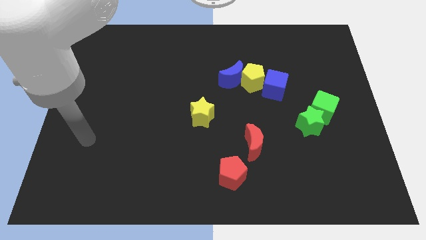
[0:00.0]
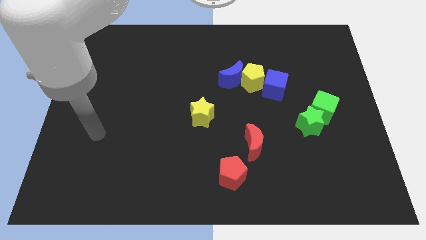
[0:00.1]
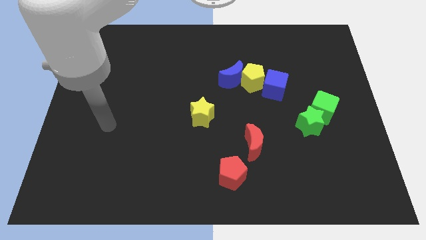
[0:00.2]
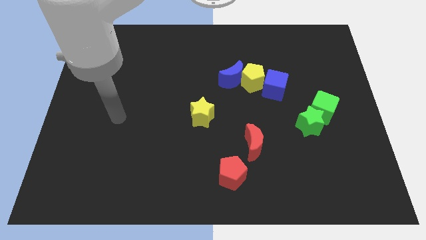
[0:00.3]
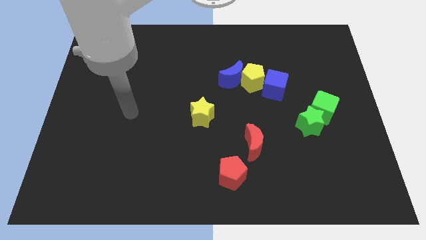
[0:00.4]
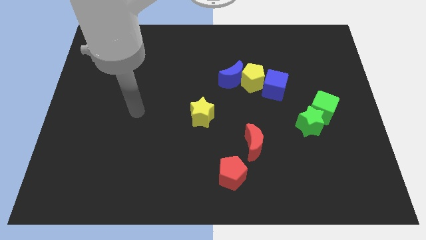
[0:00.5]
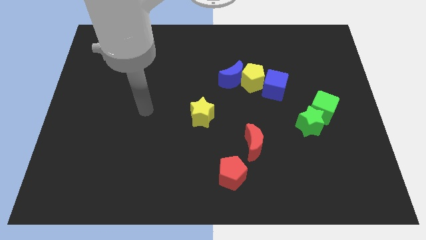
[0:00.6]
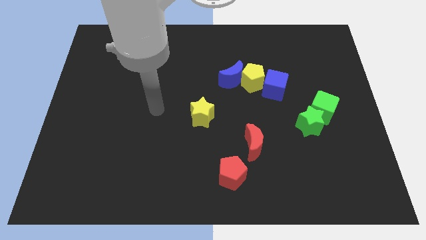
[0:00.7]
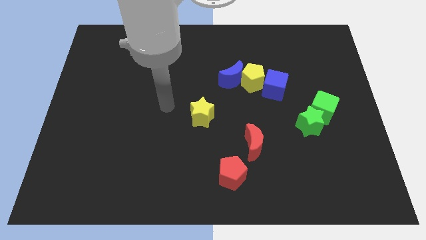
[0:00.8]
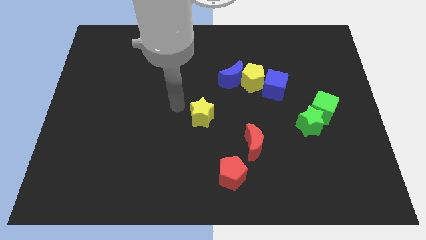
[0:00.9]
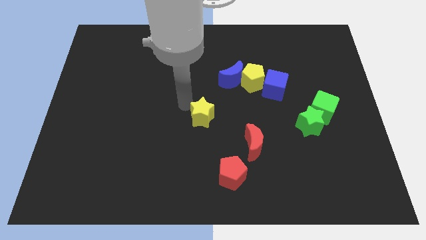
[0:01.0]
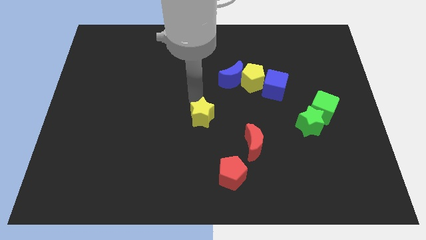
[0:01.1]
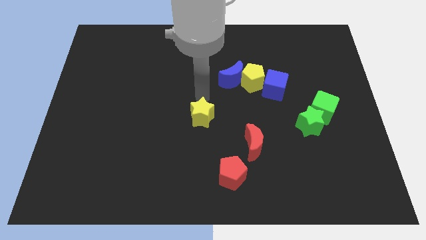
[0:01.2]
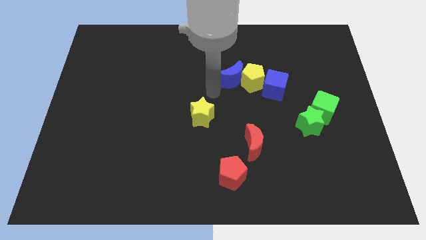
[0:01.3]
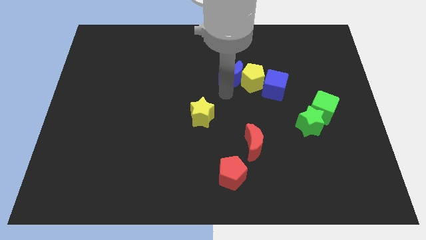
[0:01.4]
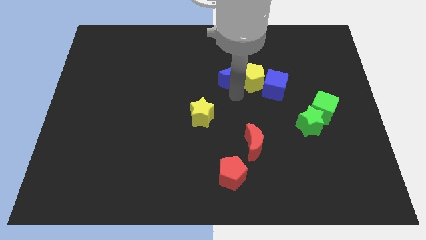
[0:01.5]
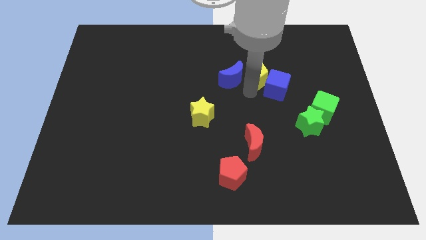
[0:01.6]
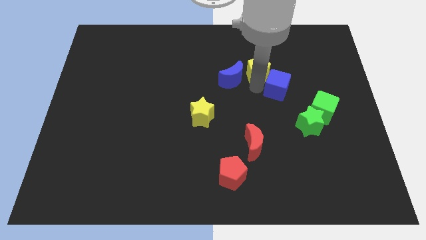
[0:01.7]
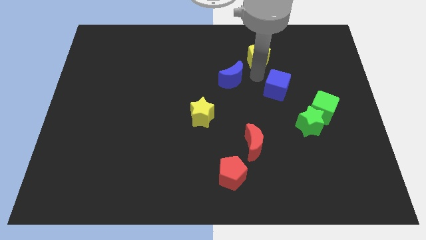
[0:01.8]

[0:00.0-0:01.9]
move the blue moon away from the yellow pentagon

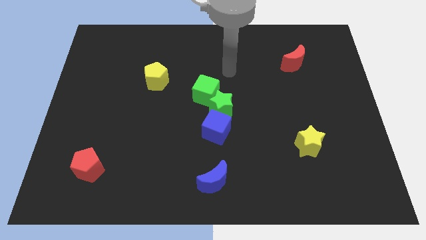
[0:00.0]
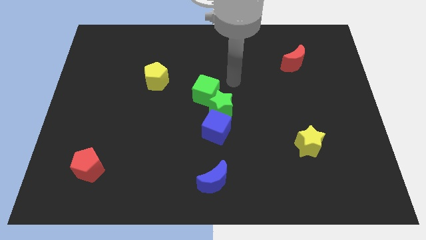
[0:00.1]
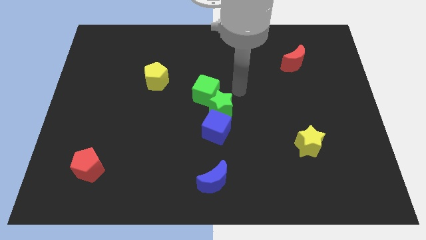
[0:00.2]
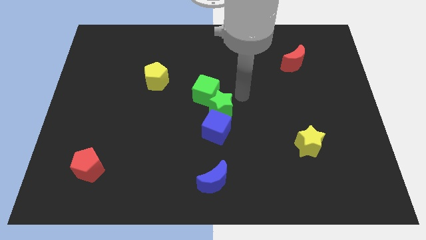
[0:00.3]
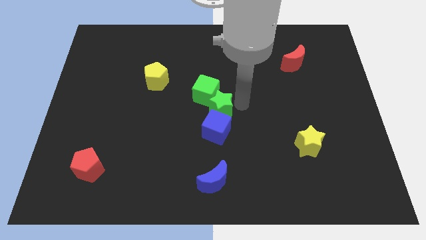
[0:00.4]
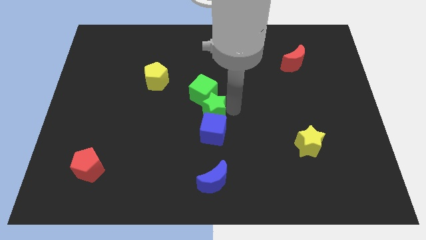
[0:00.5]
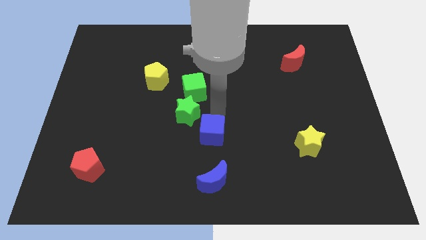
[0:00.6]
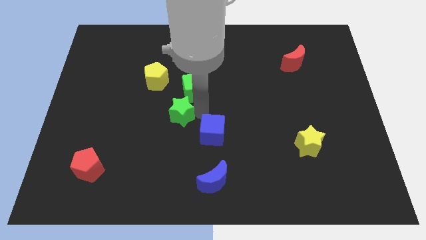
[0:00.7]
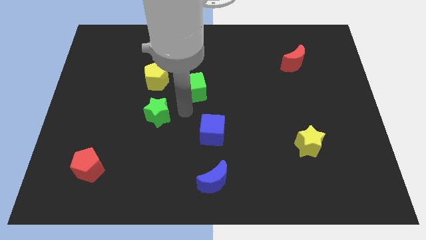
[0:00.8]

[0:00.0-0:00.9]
separate the green cube from the green star

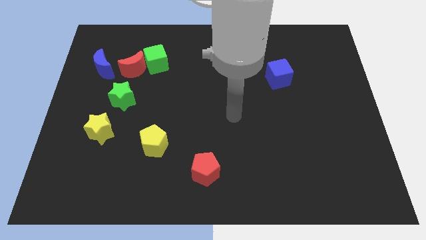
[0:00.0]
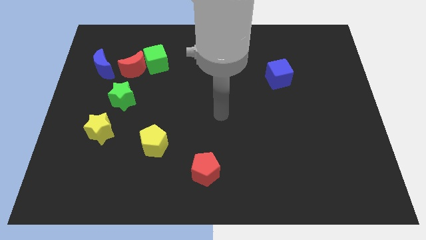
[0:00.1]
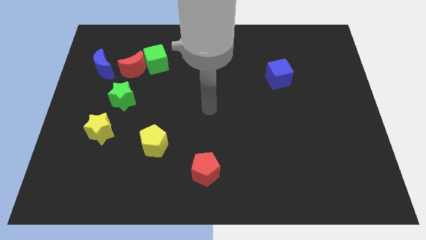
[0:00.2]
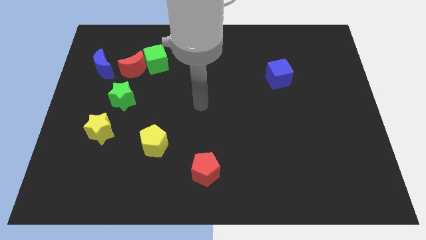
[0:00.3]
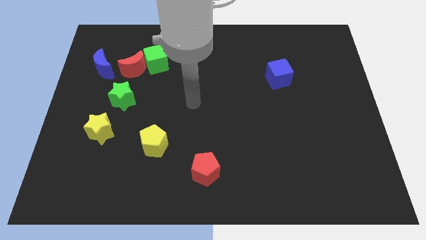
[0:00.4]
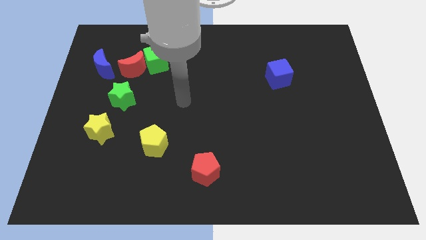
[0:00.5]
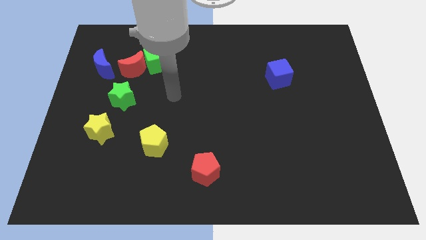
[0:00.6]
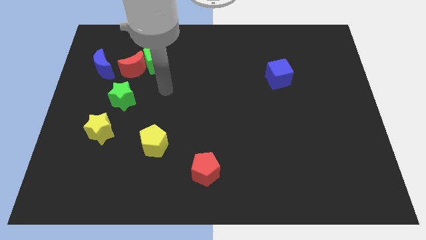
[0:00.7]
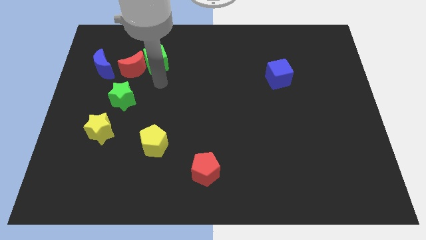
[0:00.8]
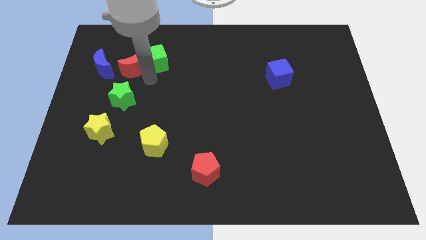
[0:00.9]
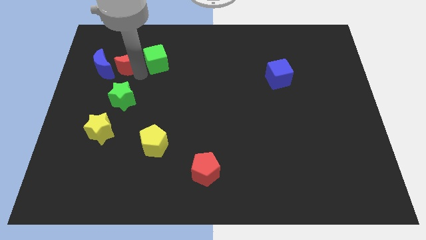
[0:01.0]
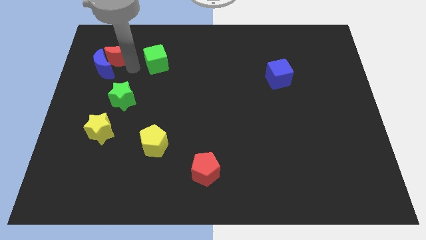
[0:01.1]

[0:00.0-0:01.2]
pull the green cube apart from the red moon

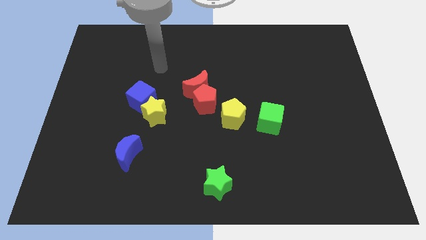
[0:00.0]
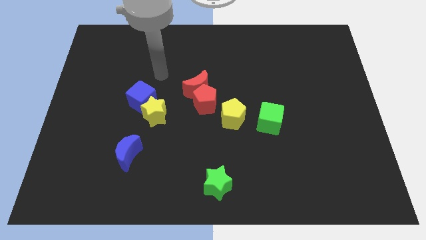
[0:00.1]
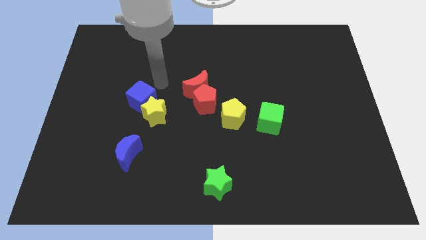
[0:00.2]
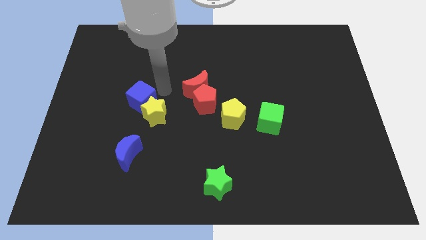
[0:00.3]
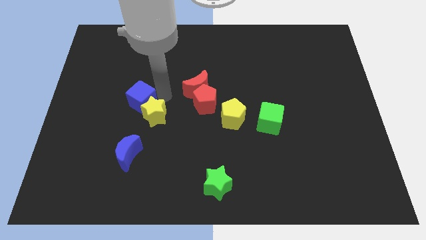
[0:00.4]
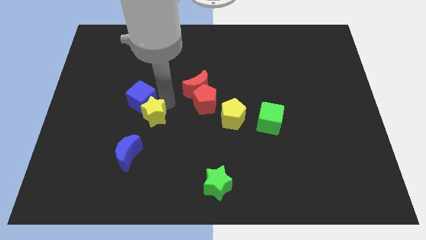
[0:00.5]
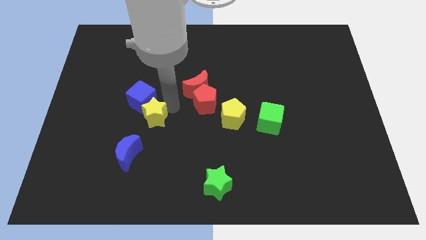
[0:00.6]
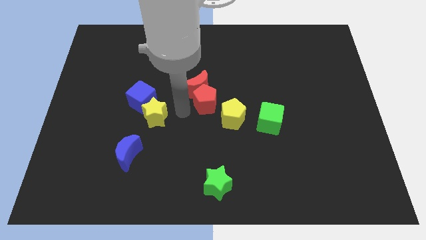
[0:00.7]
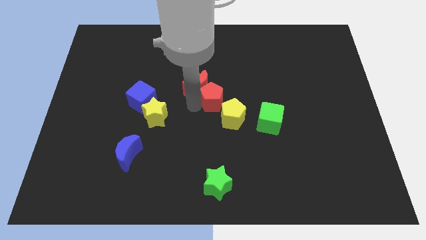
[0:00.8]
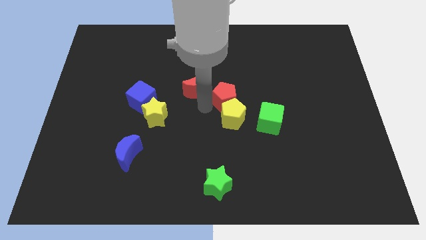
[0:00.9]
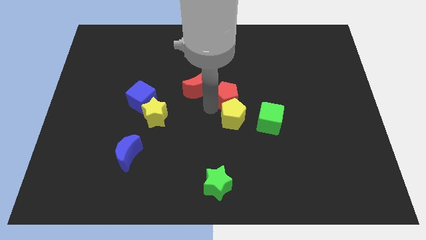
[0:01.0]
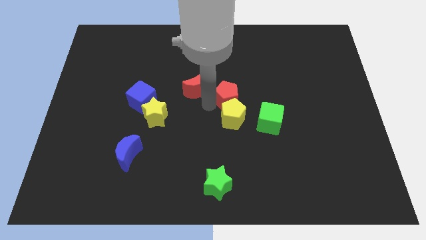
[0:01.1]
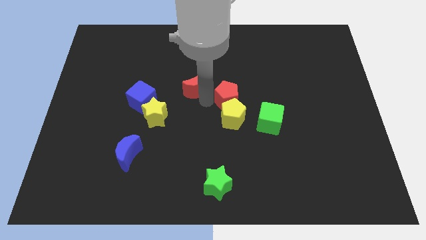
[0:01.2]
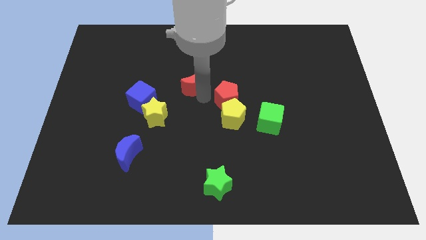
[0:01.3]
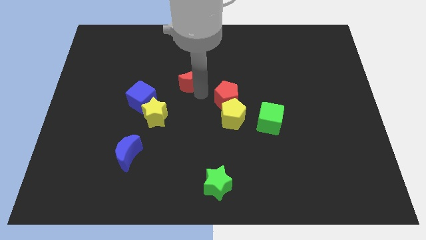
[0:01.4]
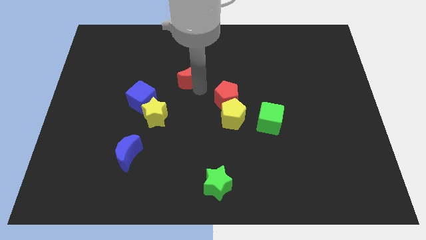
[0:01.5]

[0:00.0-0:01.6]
move the red moon away from the red pentagon

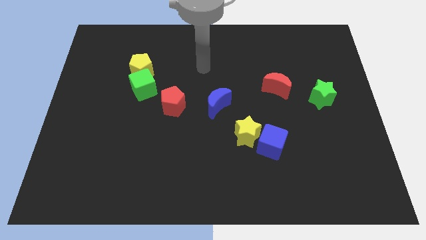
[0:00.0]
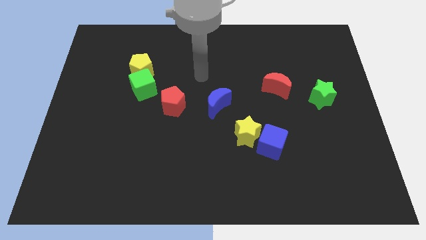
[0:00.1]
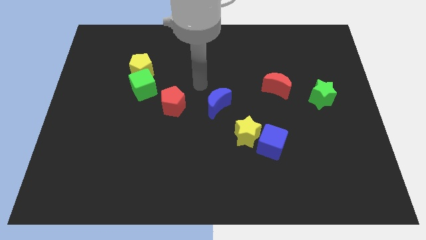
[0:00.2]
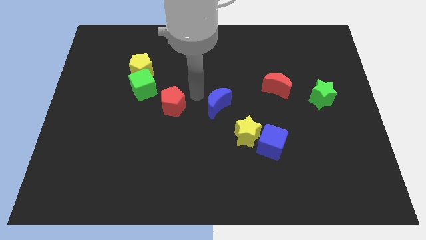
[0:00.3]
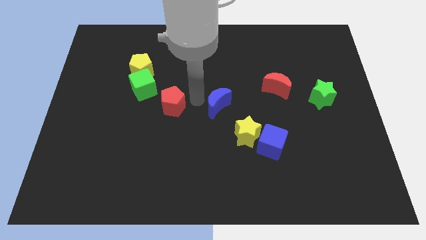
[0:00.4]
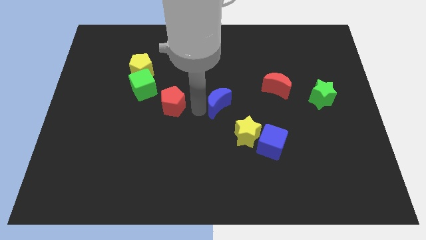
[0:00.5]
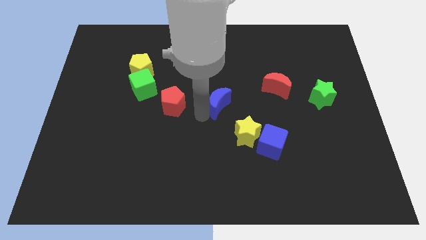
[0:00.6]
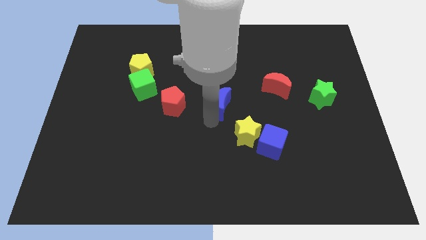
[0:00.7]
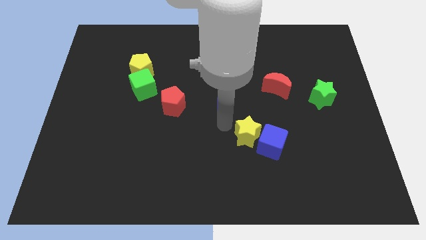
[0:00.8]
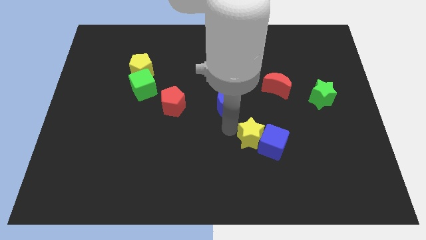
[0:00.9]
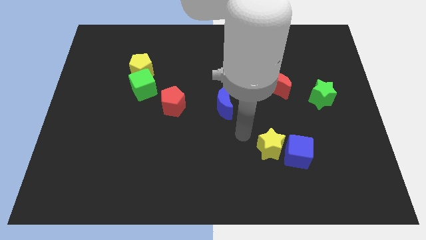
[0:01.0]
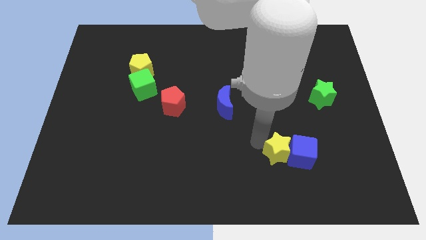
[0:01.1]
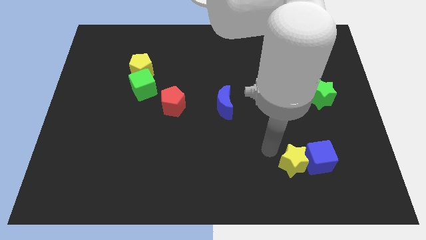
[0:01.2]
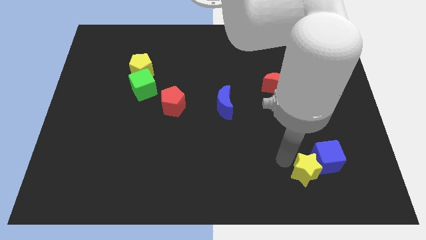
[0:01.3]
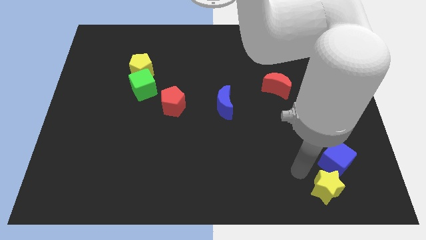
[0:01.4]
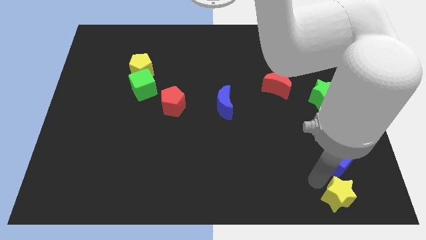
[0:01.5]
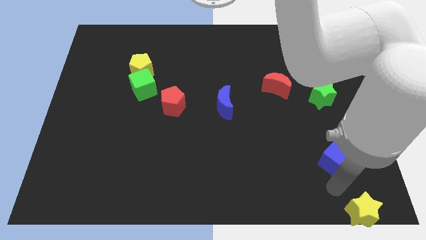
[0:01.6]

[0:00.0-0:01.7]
pull the blue cube apart from the yellow star

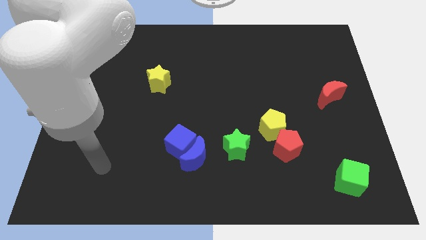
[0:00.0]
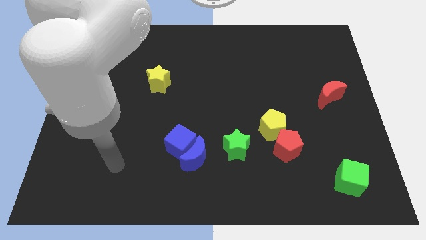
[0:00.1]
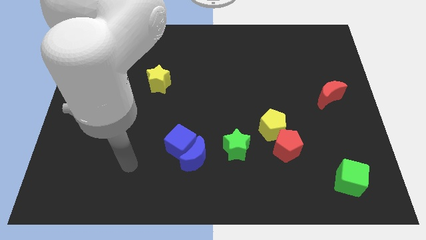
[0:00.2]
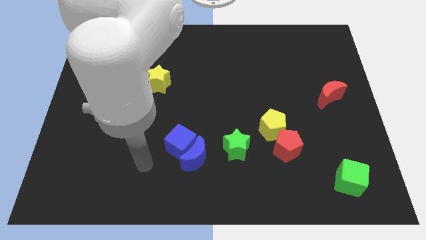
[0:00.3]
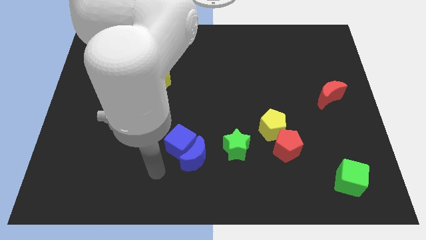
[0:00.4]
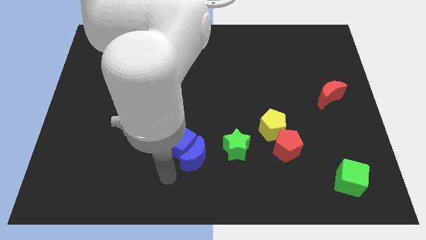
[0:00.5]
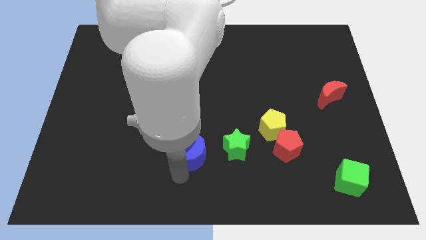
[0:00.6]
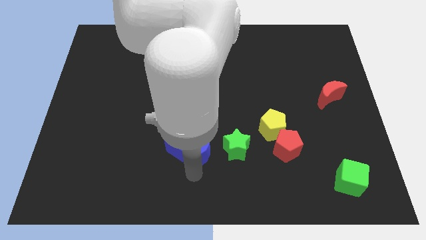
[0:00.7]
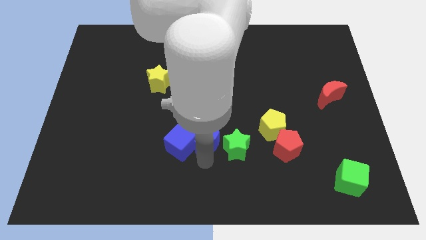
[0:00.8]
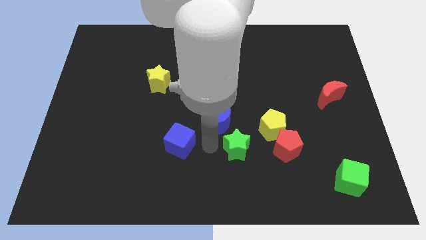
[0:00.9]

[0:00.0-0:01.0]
pull the blue cube apart from the blue moon

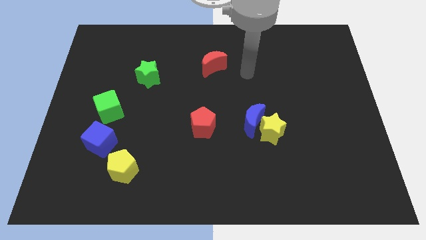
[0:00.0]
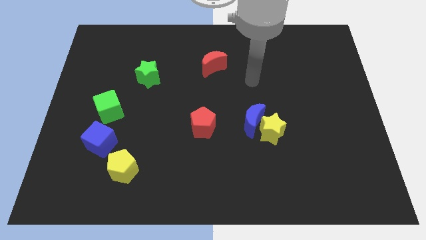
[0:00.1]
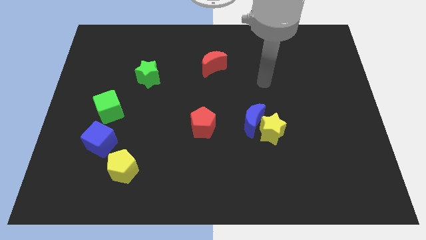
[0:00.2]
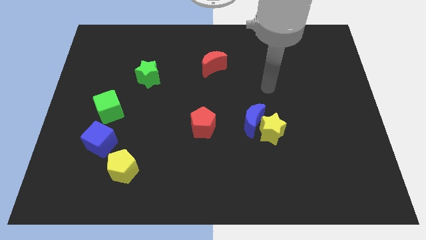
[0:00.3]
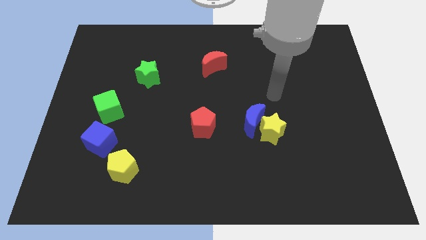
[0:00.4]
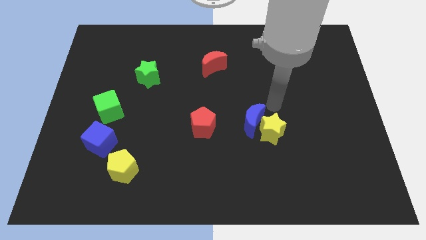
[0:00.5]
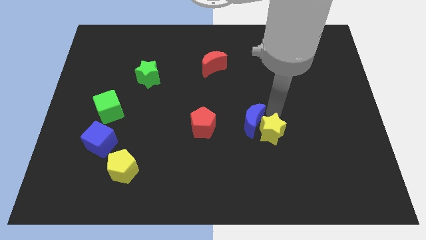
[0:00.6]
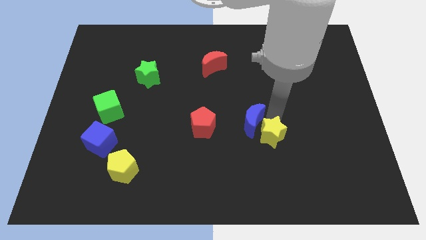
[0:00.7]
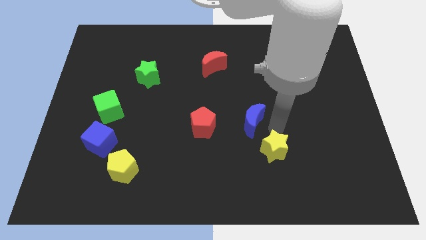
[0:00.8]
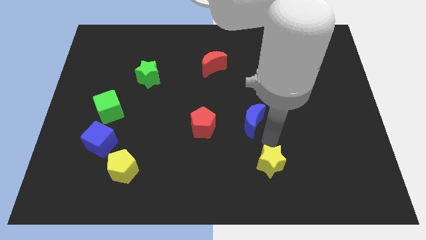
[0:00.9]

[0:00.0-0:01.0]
separate the blue moon from the yellow star
